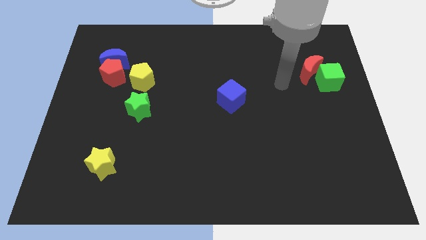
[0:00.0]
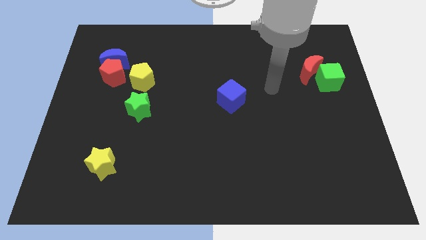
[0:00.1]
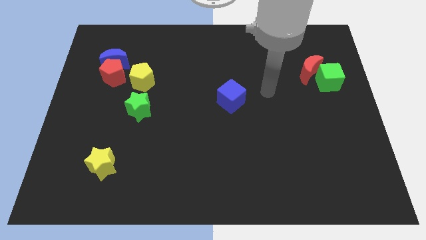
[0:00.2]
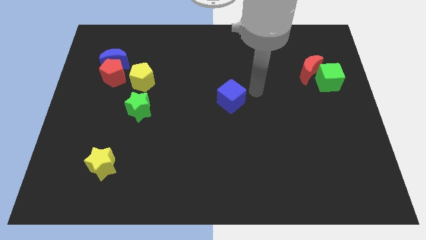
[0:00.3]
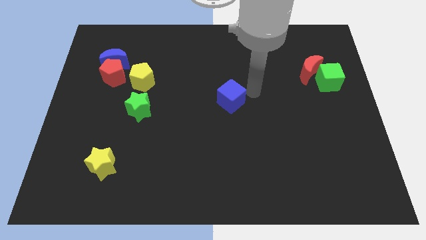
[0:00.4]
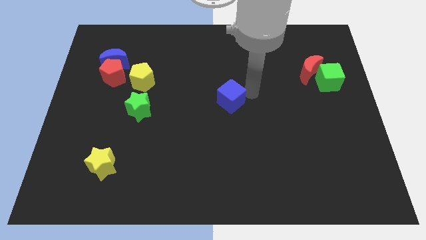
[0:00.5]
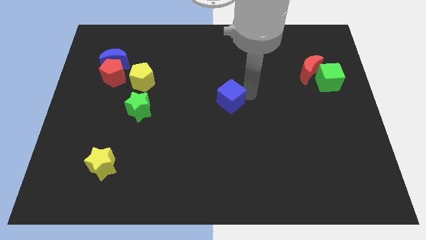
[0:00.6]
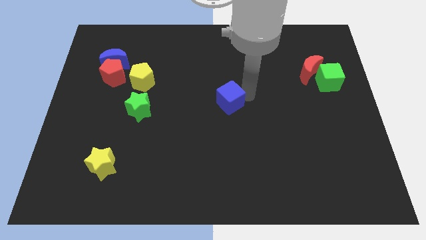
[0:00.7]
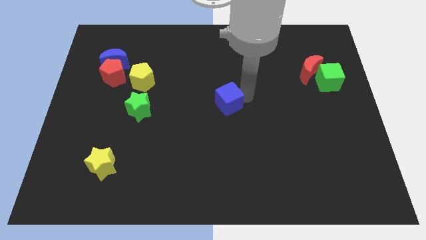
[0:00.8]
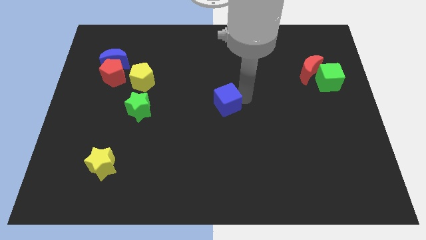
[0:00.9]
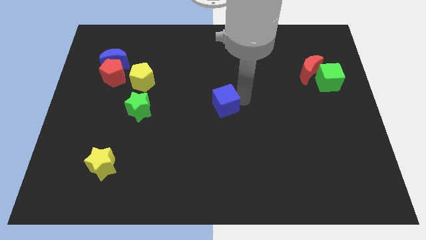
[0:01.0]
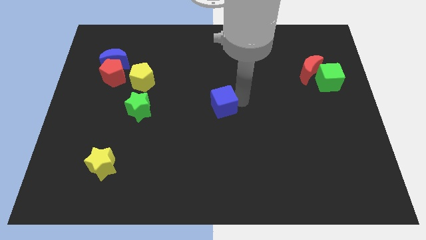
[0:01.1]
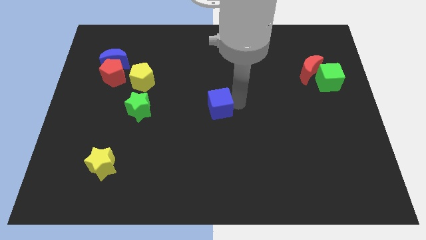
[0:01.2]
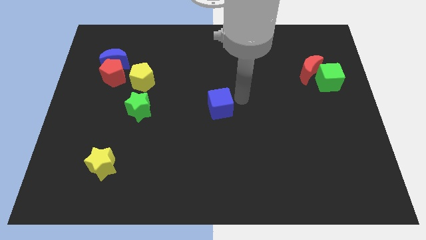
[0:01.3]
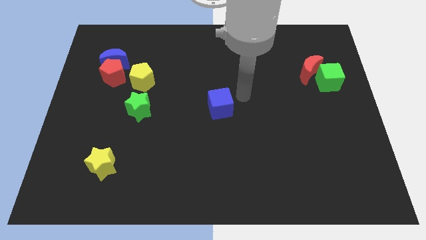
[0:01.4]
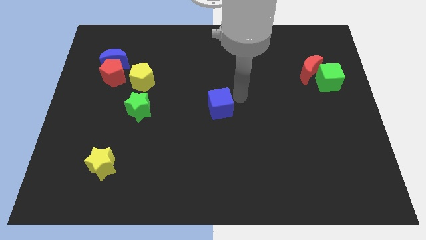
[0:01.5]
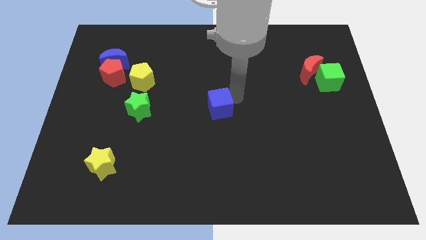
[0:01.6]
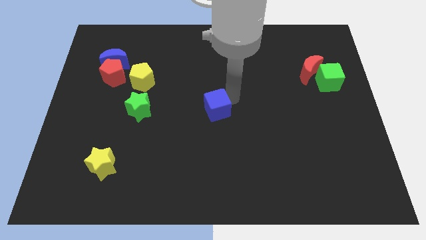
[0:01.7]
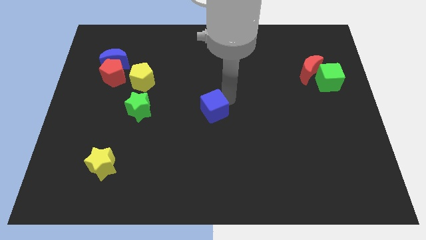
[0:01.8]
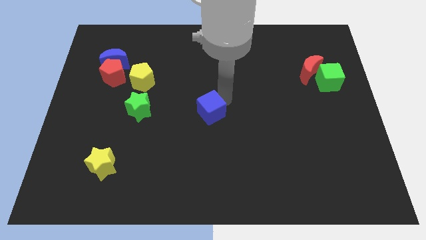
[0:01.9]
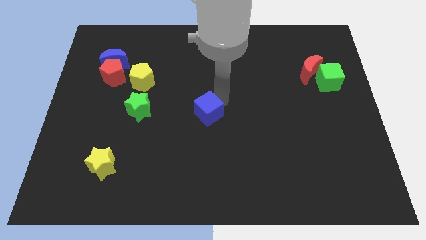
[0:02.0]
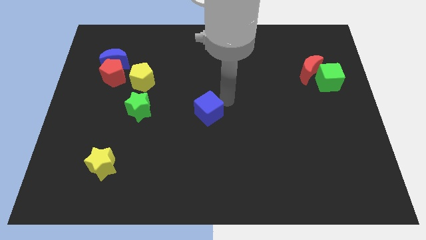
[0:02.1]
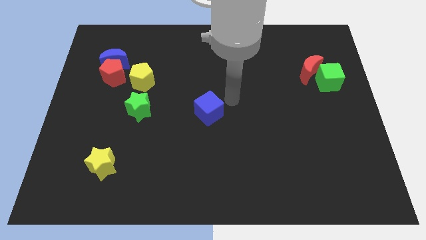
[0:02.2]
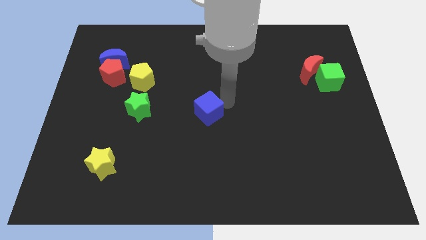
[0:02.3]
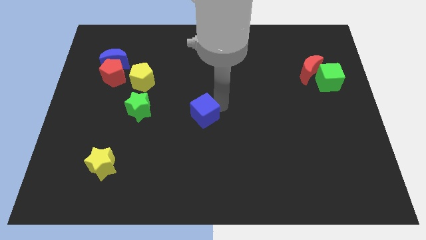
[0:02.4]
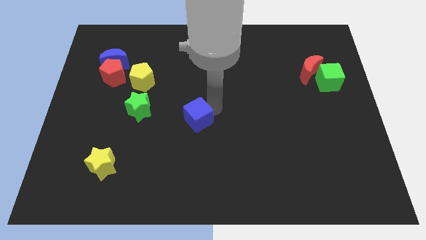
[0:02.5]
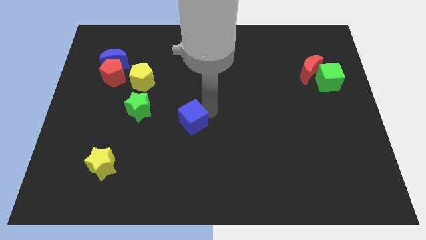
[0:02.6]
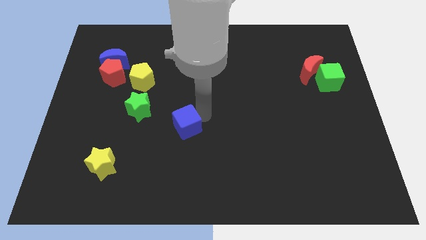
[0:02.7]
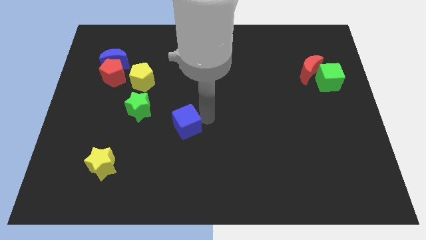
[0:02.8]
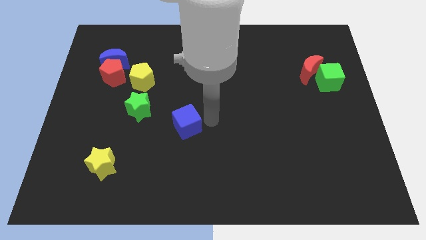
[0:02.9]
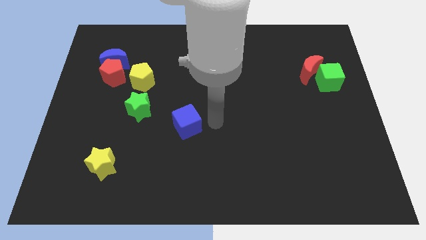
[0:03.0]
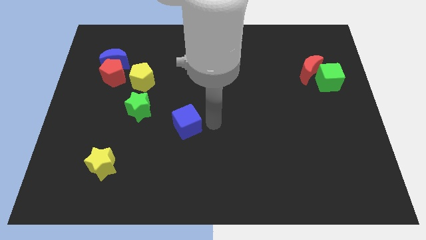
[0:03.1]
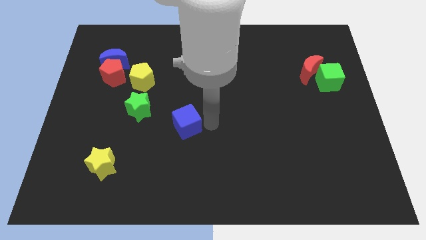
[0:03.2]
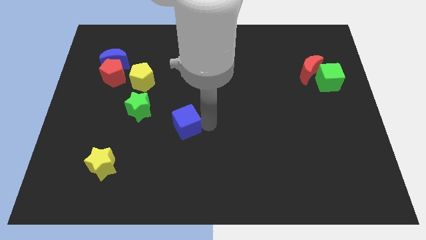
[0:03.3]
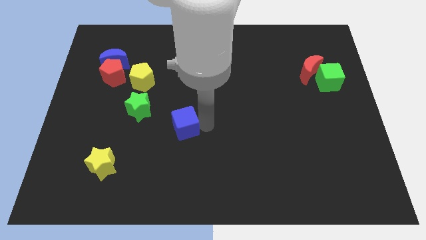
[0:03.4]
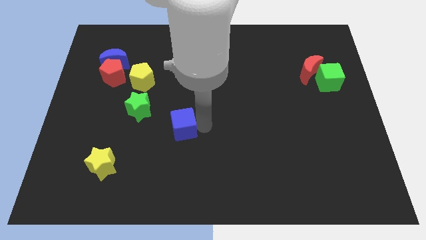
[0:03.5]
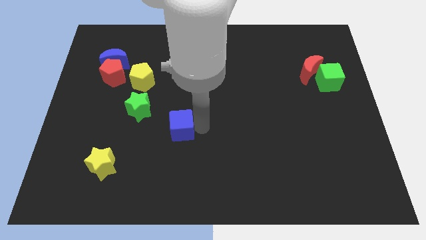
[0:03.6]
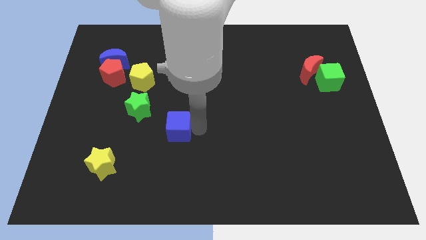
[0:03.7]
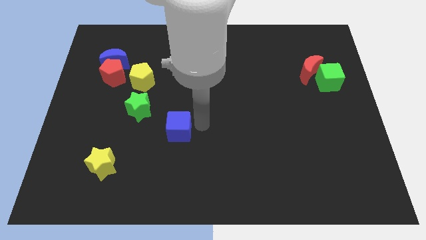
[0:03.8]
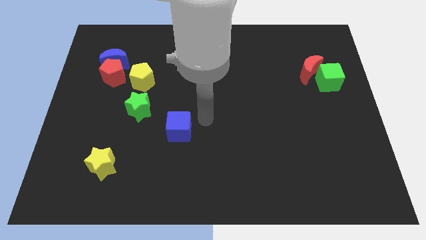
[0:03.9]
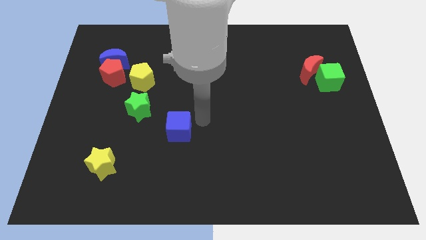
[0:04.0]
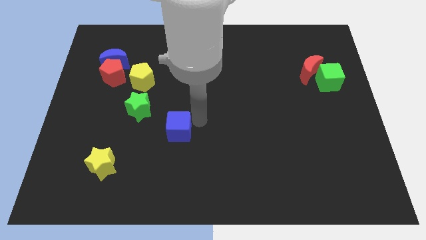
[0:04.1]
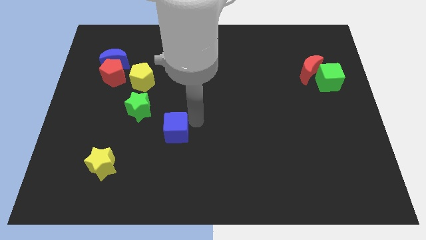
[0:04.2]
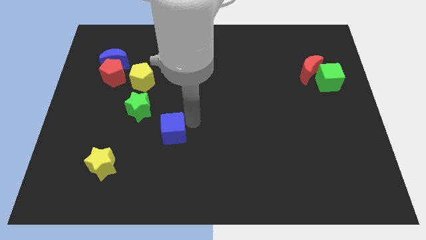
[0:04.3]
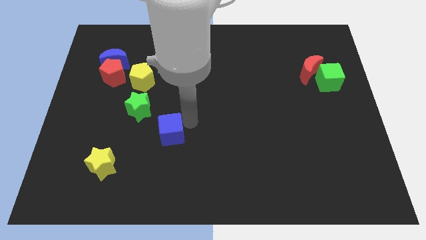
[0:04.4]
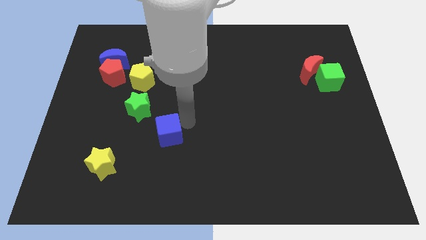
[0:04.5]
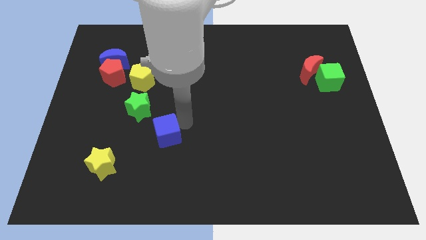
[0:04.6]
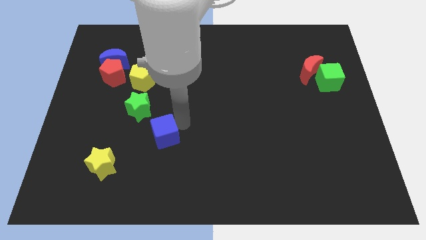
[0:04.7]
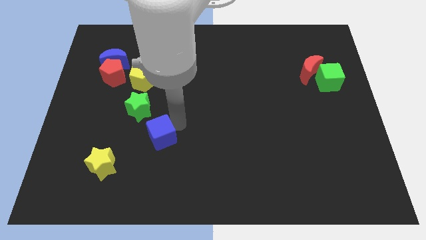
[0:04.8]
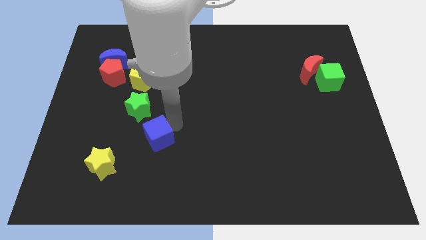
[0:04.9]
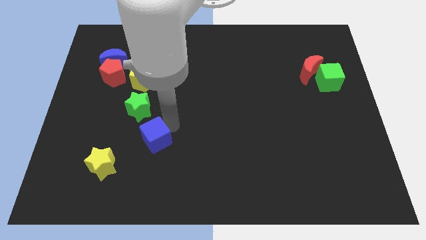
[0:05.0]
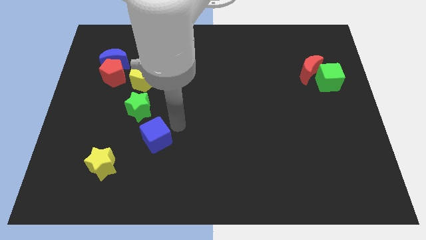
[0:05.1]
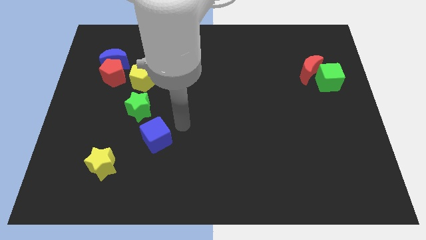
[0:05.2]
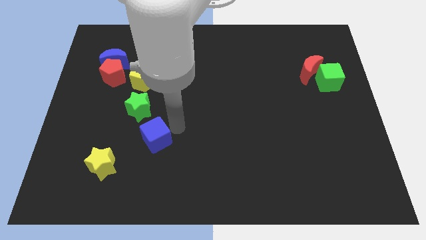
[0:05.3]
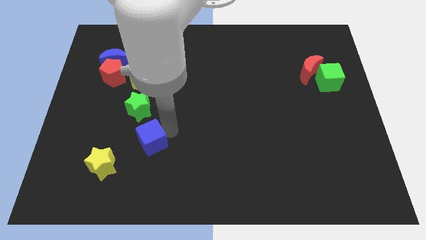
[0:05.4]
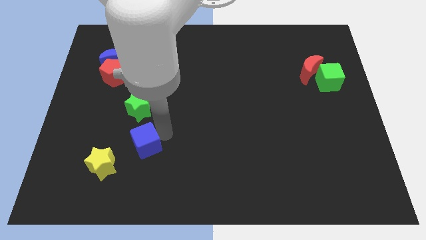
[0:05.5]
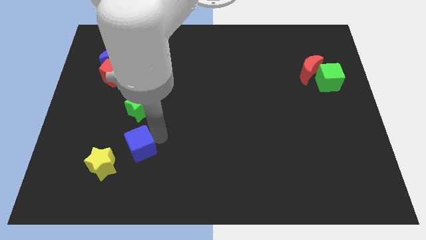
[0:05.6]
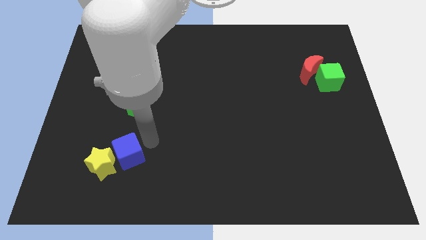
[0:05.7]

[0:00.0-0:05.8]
put the blue cube towards the yellow star
